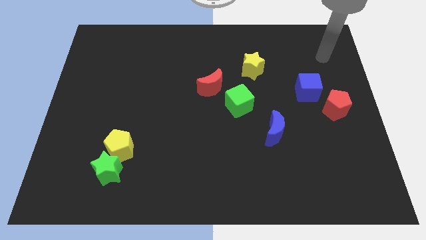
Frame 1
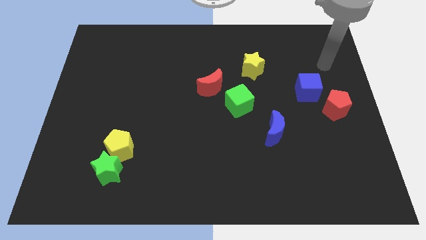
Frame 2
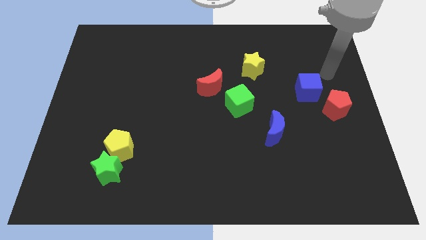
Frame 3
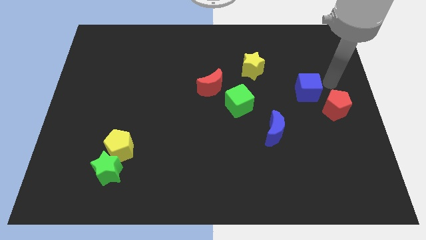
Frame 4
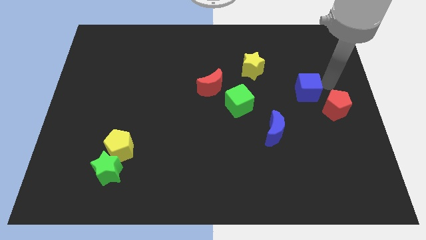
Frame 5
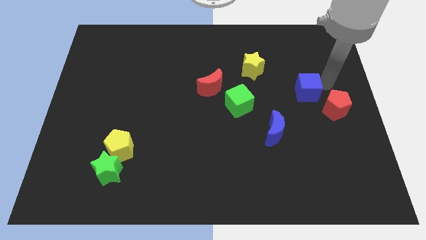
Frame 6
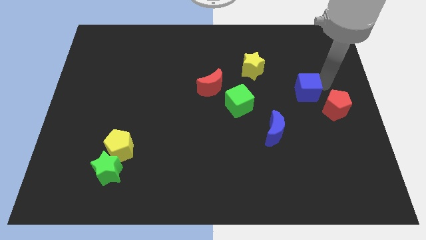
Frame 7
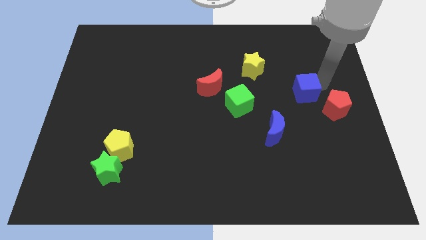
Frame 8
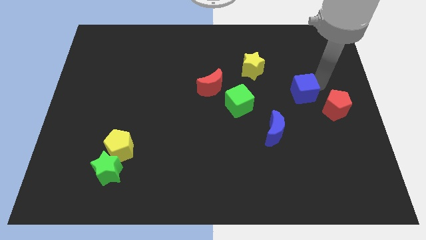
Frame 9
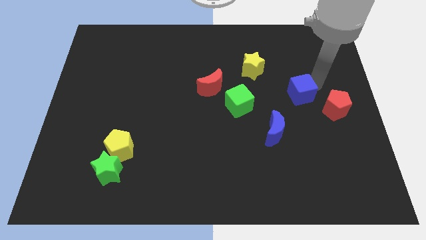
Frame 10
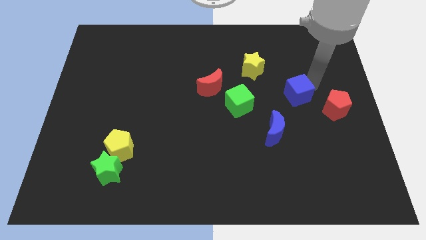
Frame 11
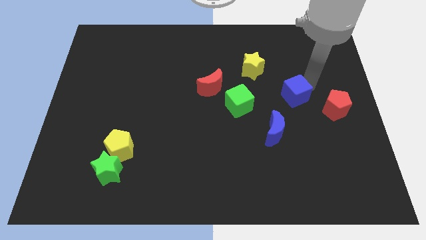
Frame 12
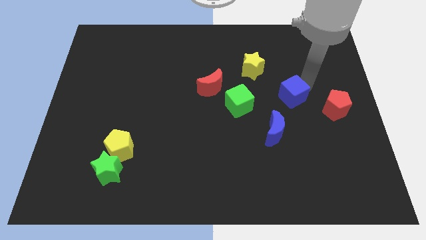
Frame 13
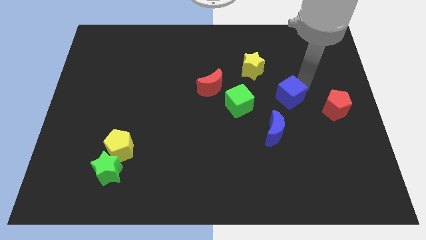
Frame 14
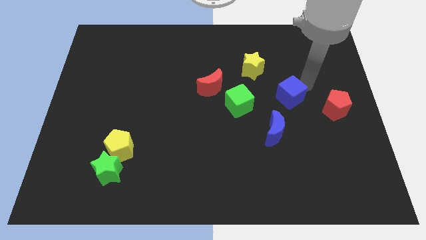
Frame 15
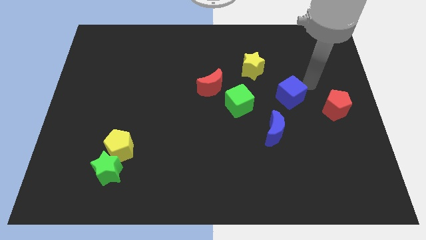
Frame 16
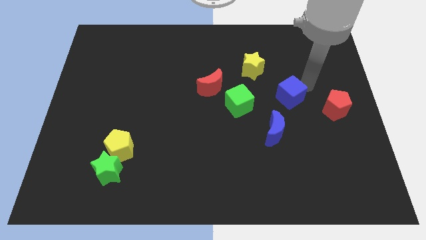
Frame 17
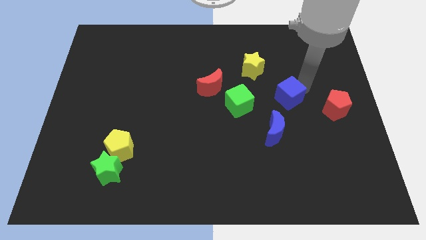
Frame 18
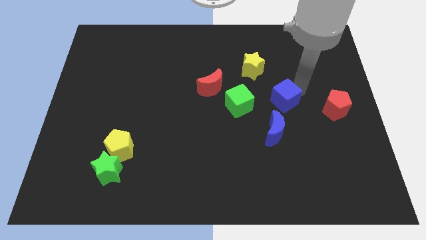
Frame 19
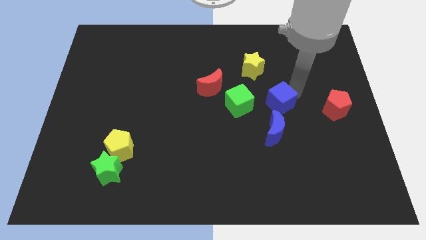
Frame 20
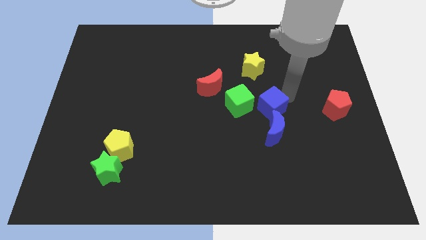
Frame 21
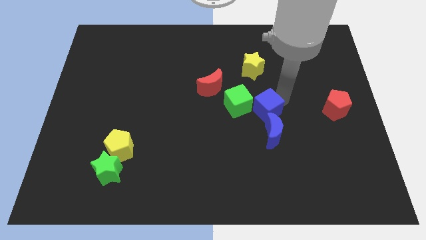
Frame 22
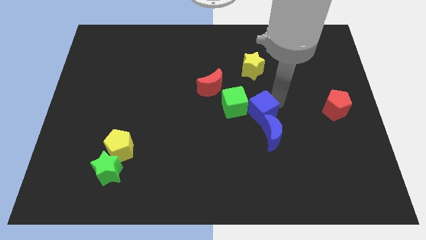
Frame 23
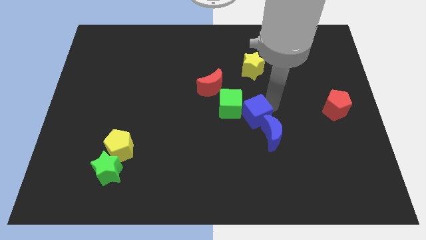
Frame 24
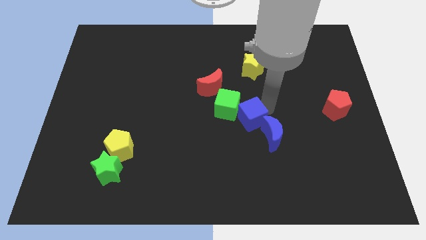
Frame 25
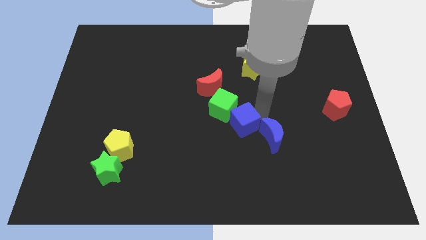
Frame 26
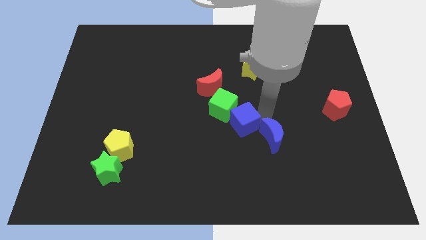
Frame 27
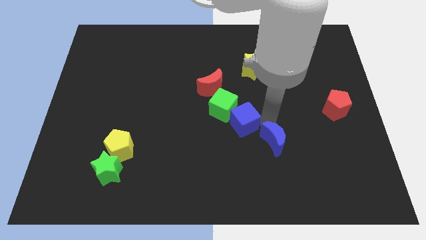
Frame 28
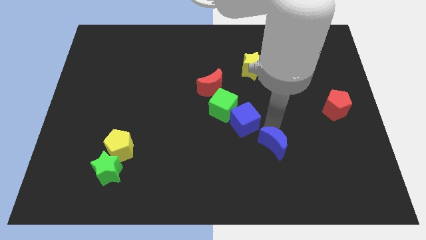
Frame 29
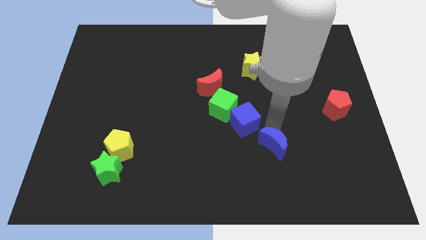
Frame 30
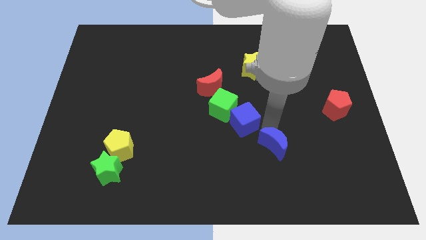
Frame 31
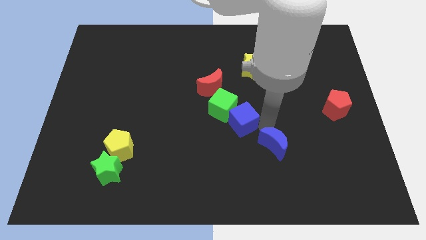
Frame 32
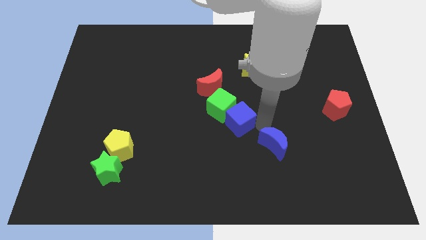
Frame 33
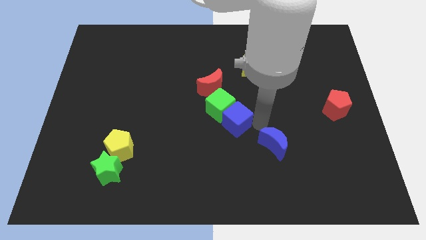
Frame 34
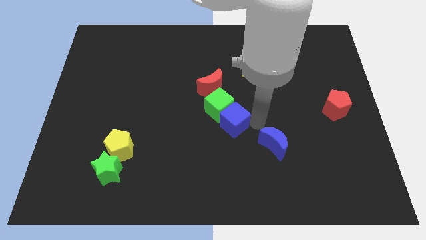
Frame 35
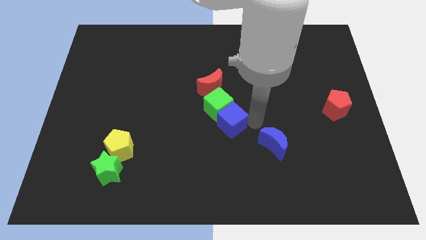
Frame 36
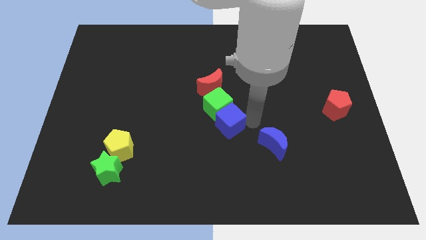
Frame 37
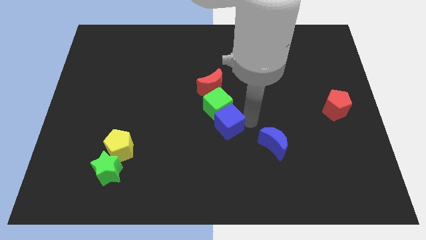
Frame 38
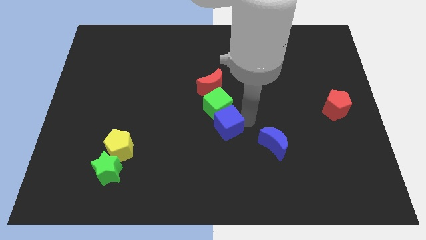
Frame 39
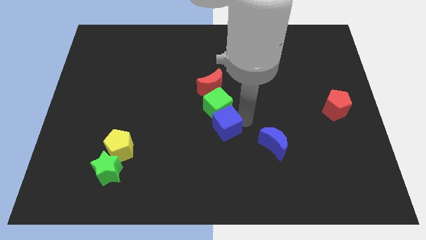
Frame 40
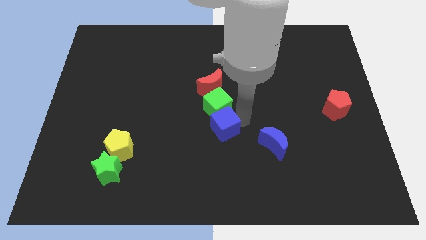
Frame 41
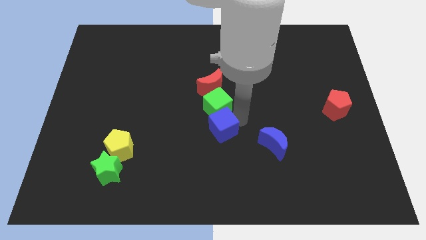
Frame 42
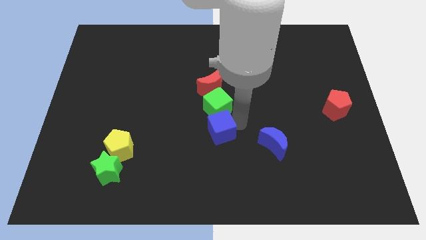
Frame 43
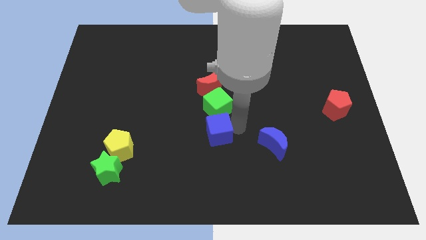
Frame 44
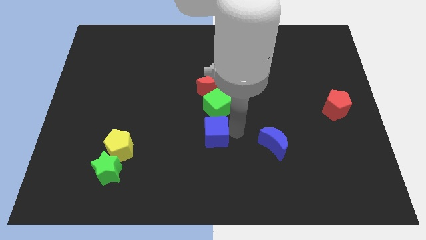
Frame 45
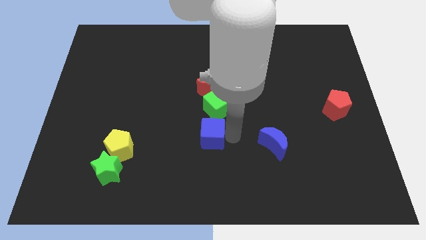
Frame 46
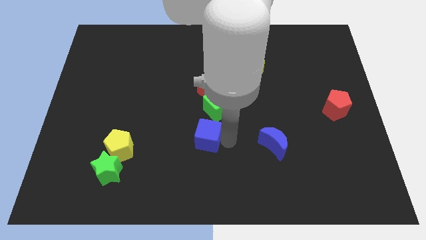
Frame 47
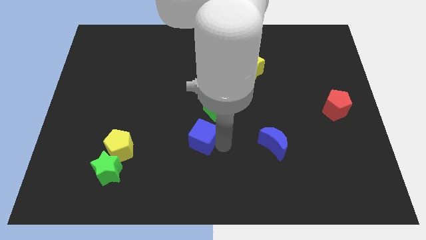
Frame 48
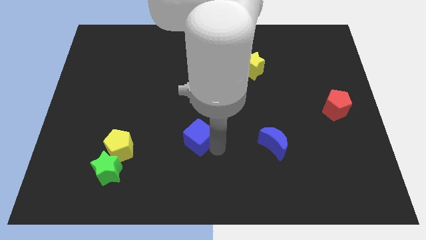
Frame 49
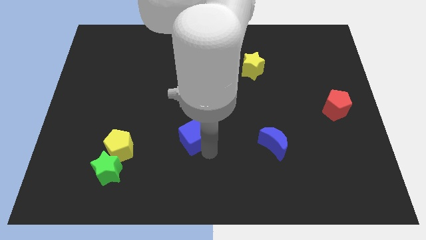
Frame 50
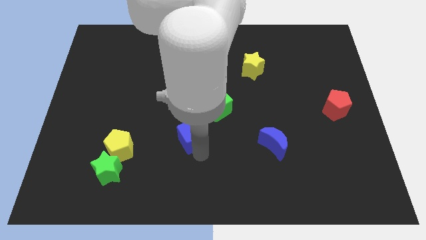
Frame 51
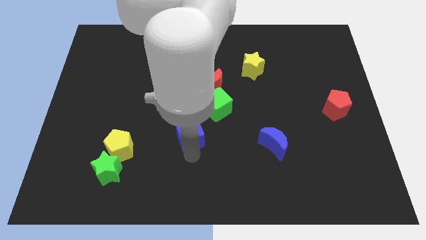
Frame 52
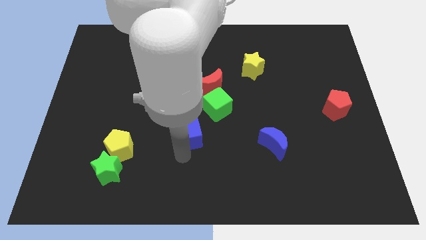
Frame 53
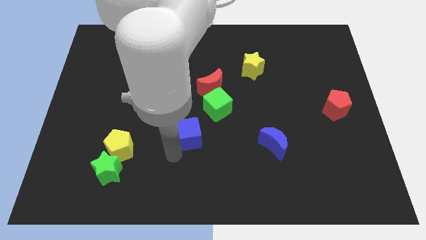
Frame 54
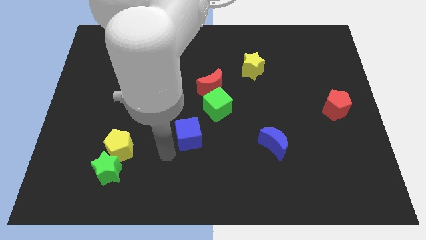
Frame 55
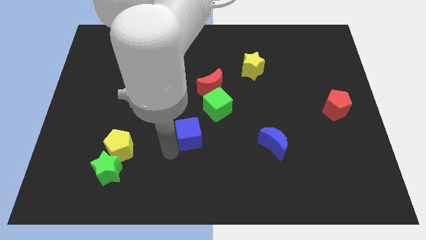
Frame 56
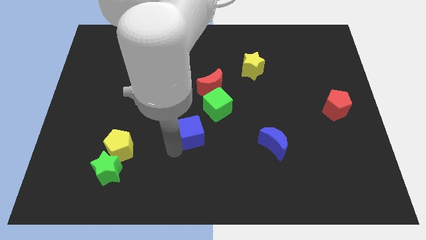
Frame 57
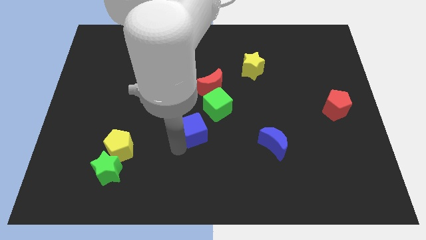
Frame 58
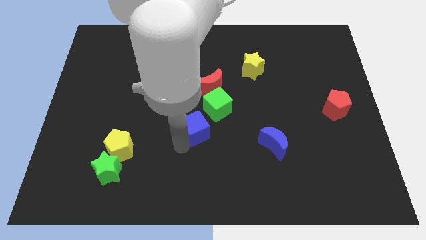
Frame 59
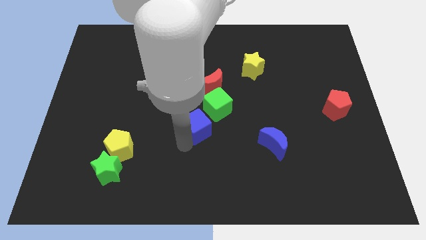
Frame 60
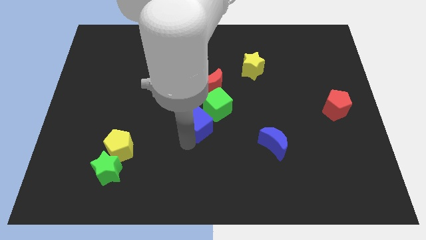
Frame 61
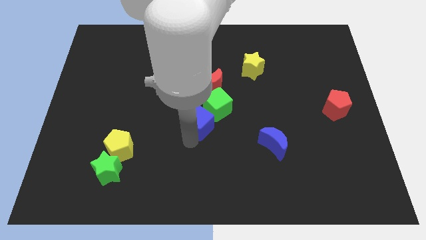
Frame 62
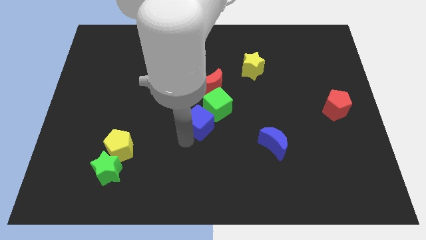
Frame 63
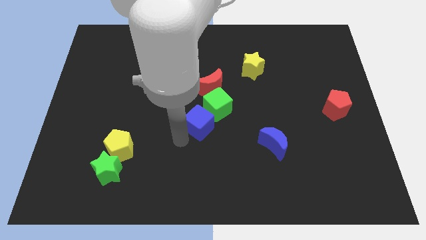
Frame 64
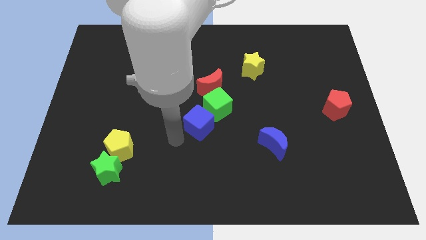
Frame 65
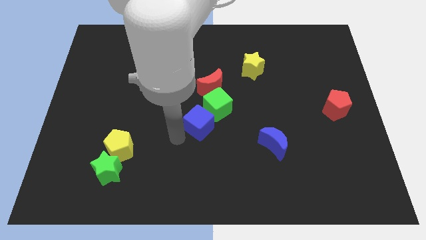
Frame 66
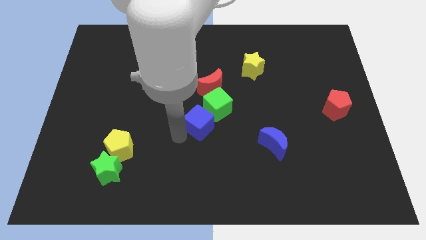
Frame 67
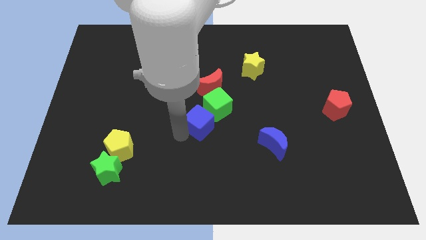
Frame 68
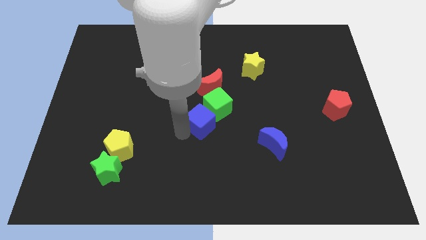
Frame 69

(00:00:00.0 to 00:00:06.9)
put the blue cube just left of the green cube
